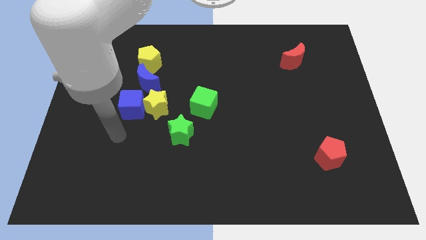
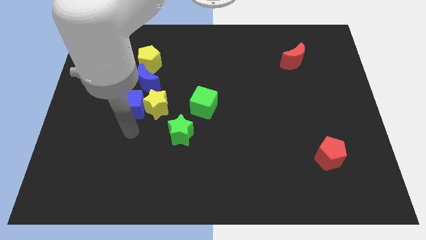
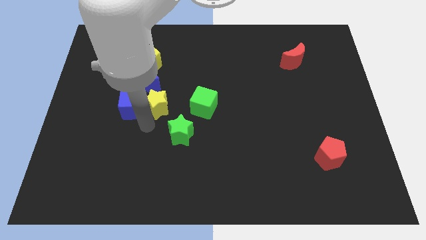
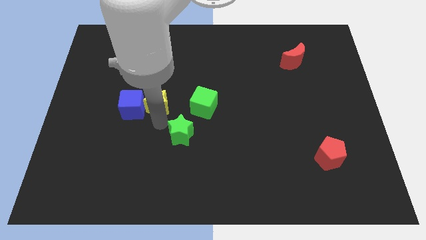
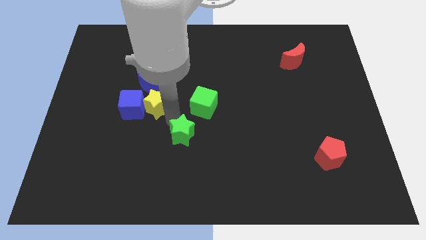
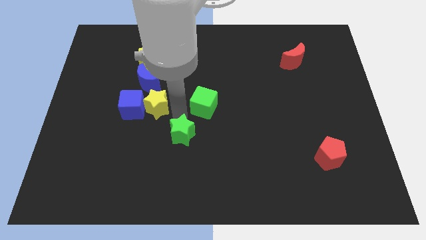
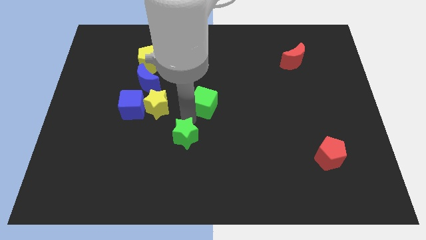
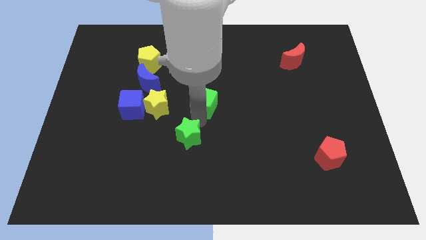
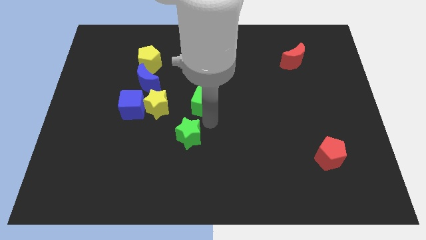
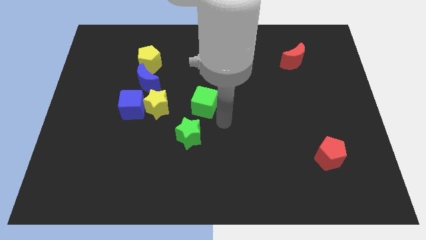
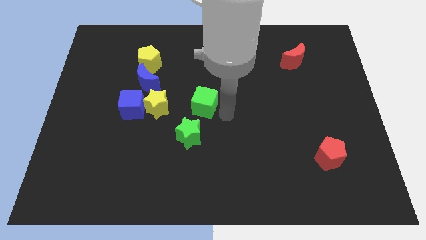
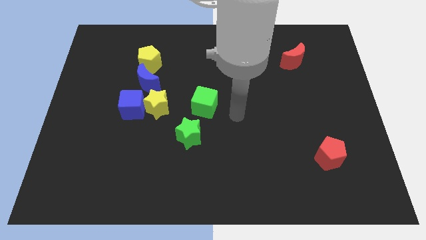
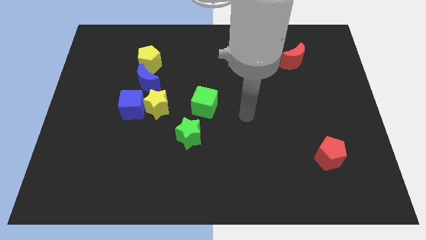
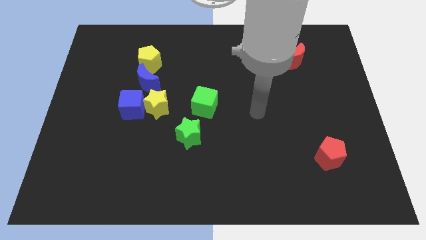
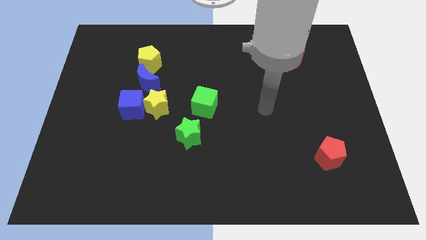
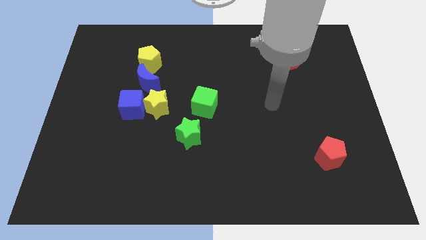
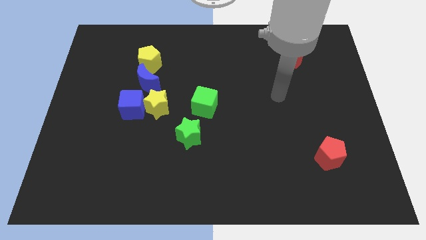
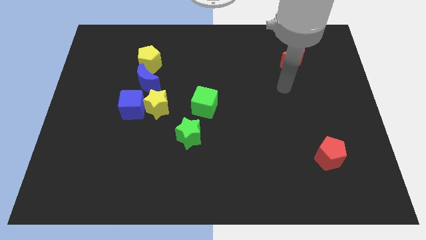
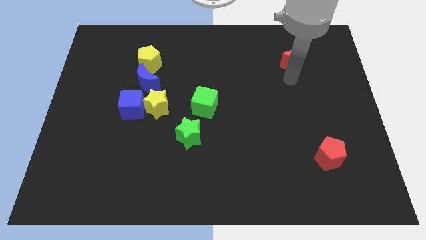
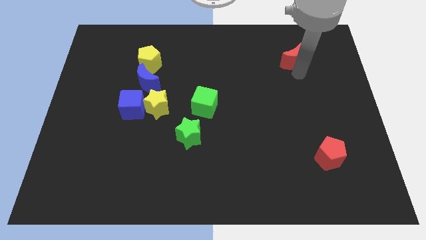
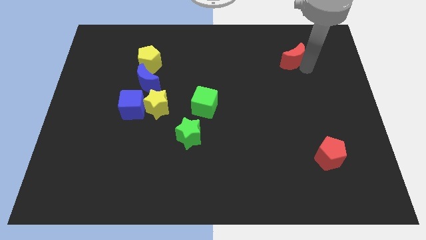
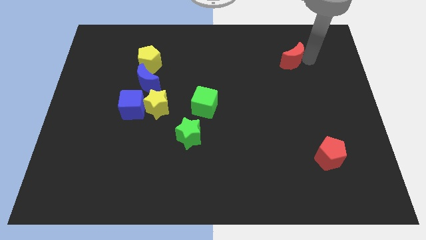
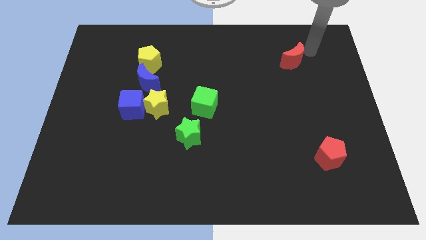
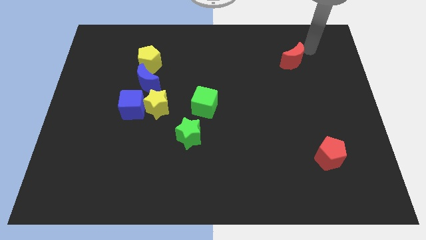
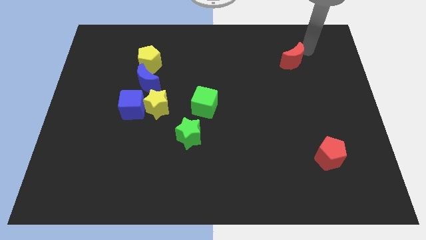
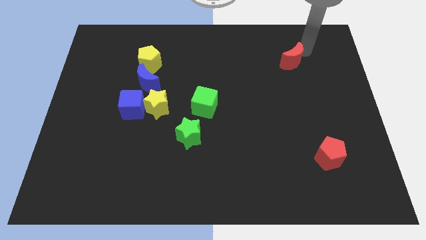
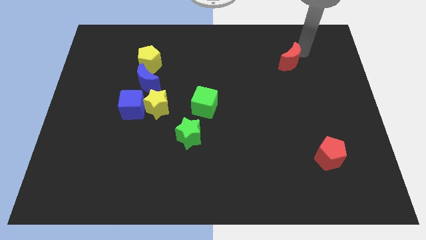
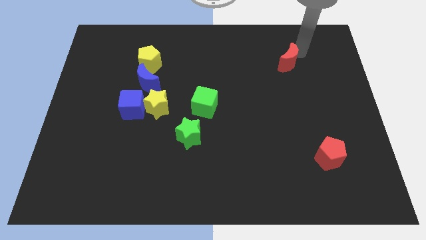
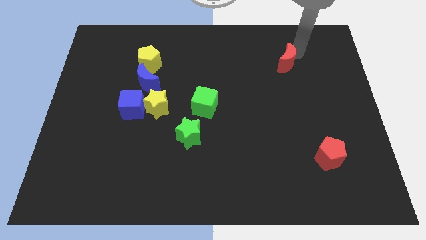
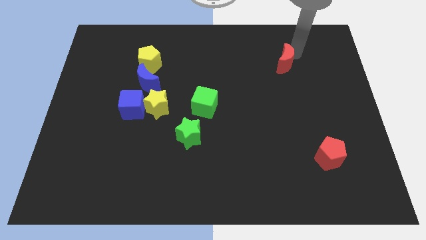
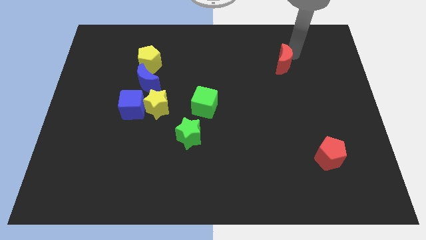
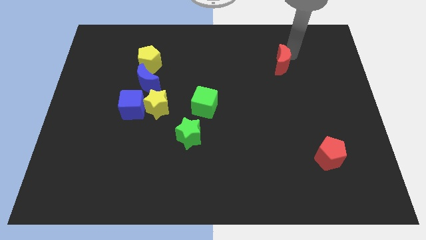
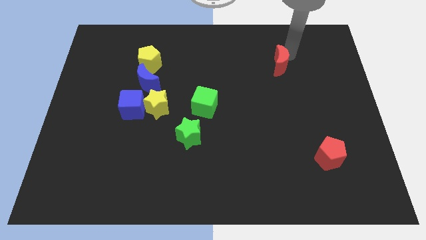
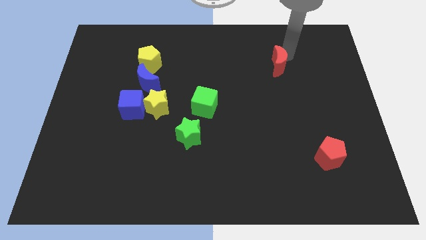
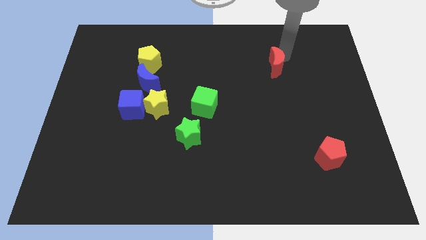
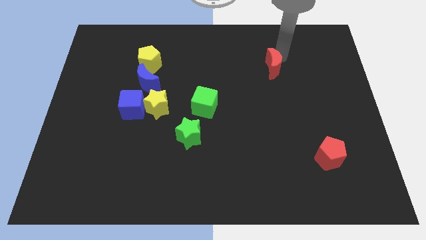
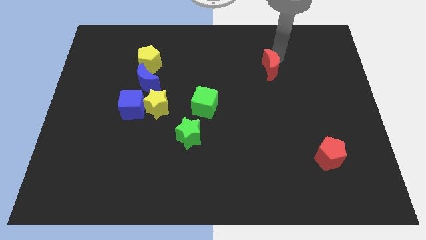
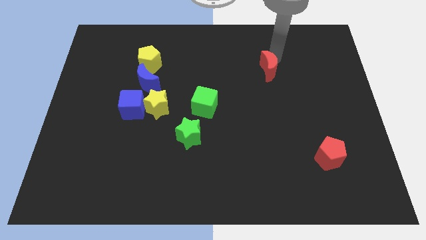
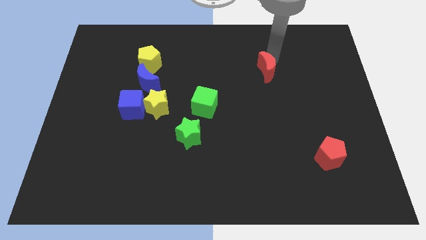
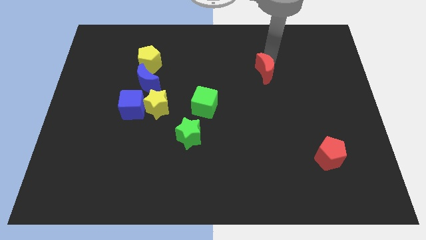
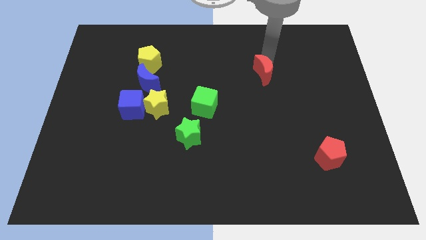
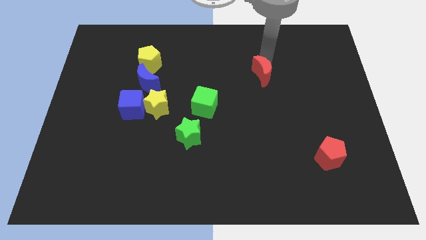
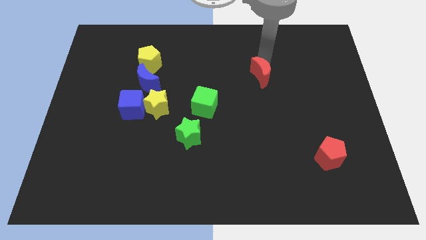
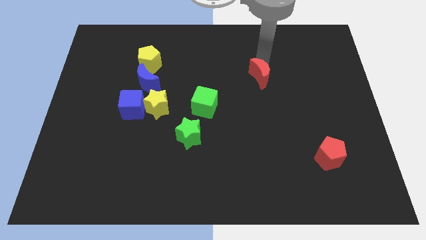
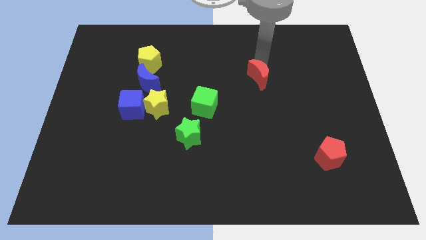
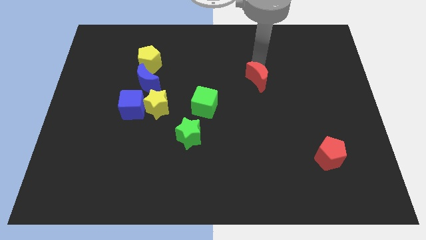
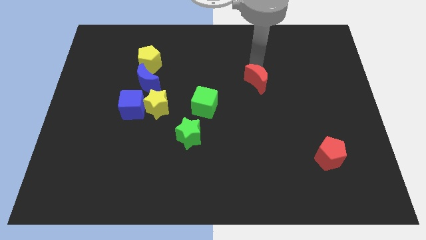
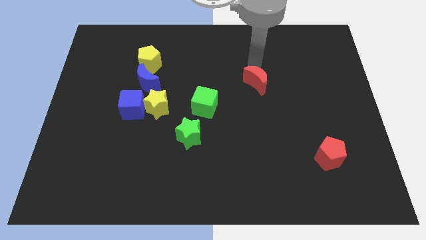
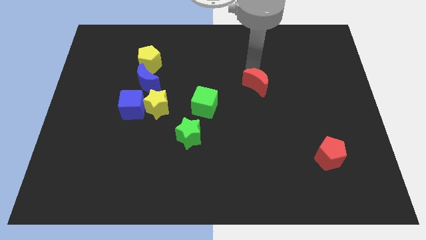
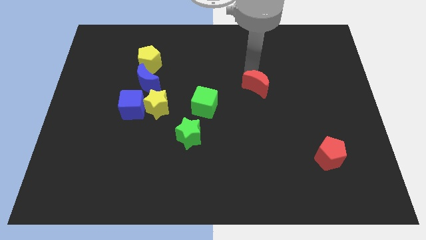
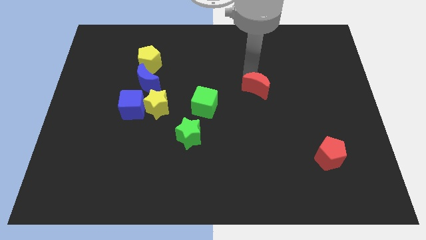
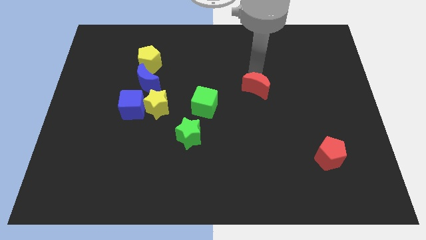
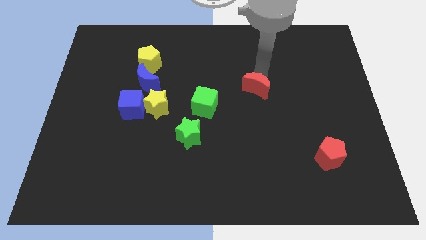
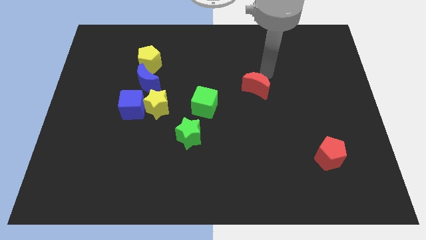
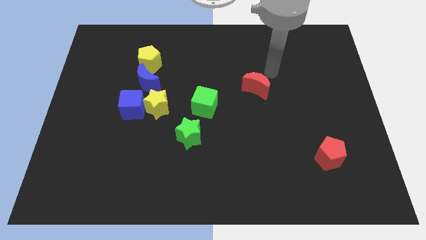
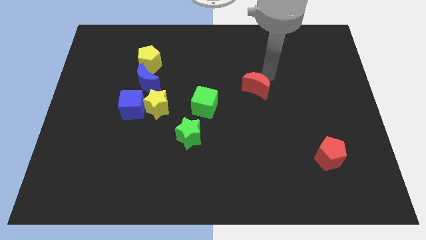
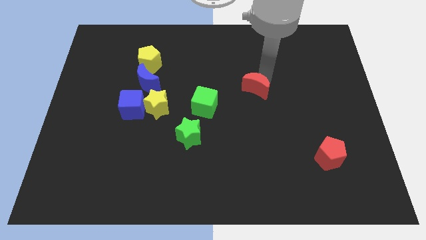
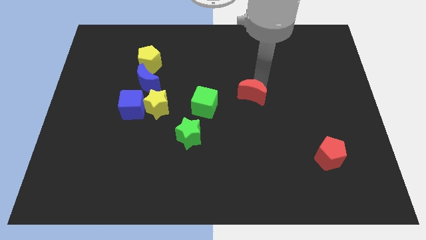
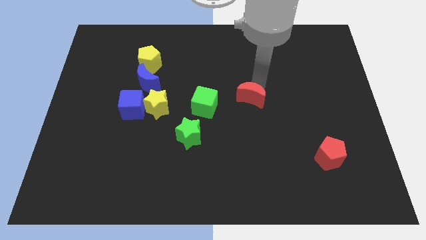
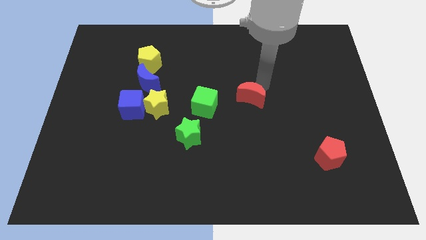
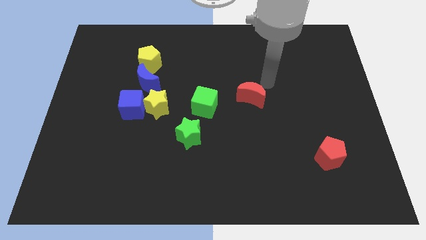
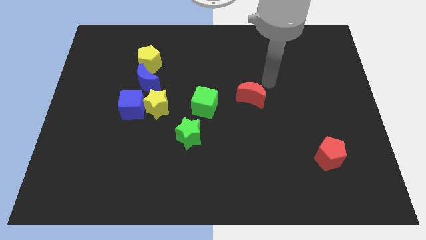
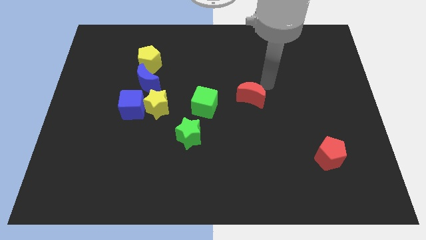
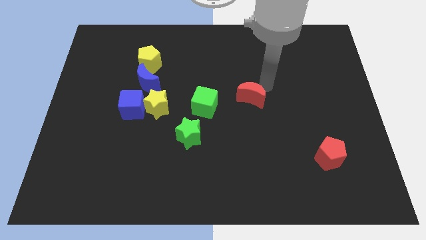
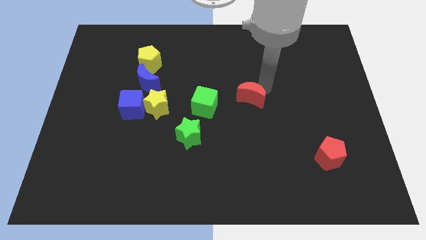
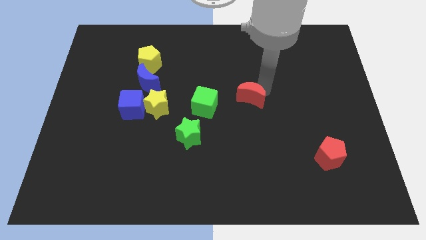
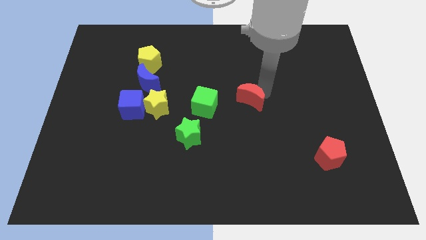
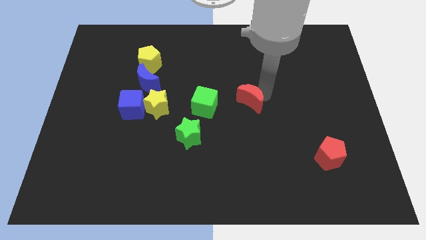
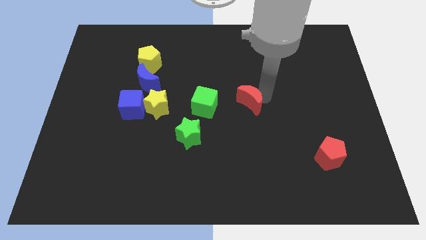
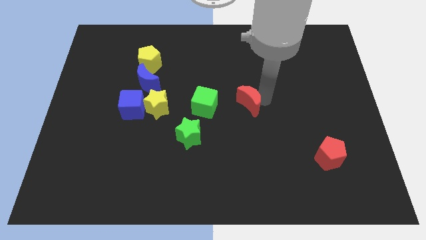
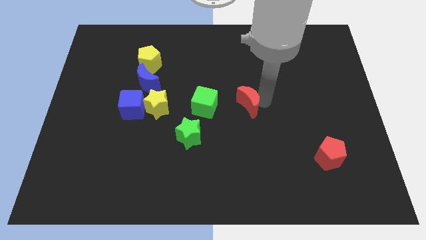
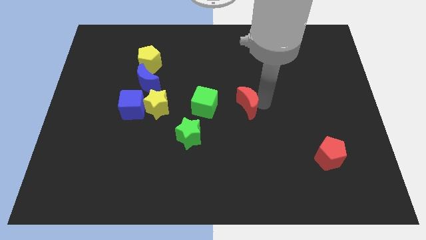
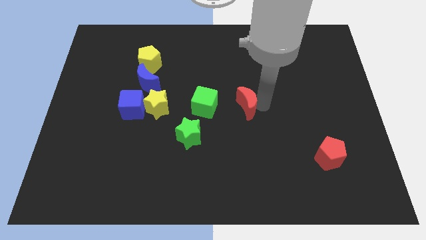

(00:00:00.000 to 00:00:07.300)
slide the red moon down and left

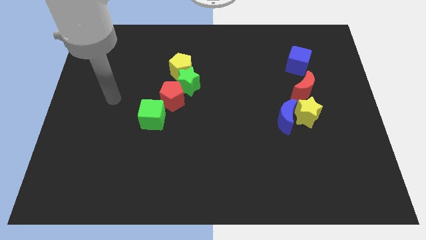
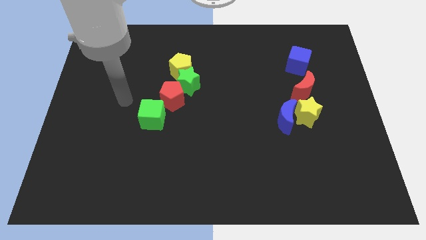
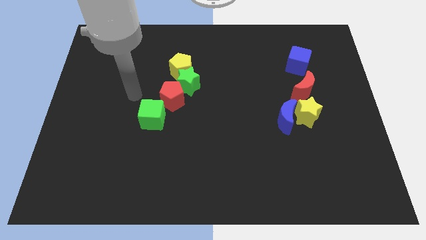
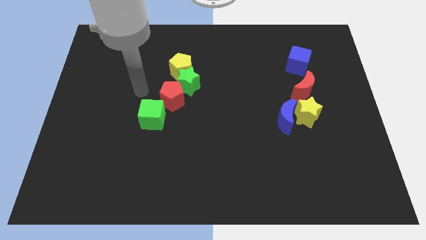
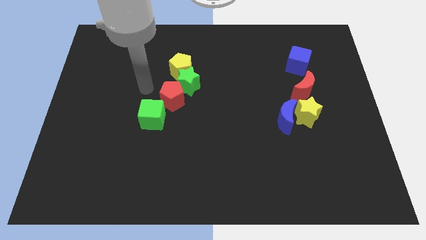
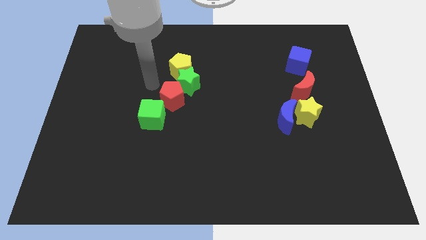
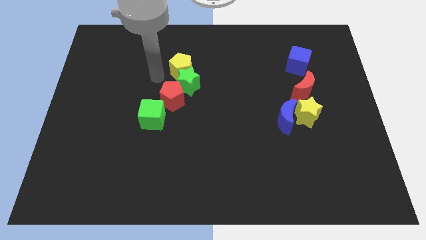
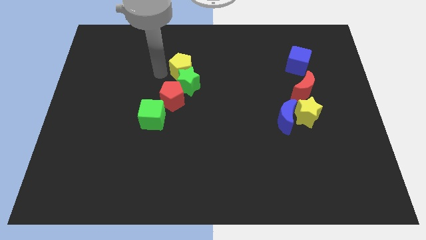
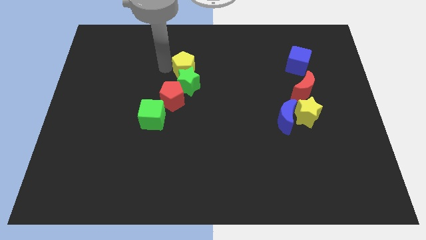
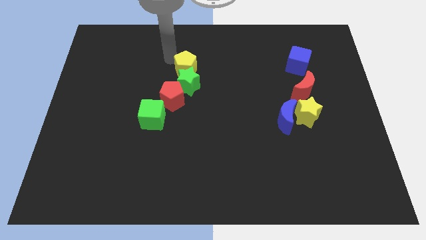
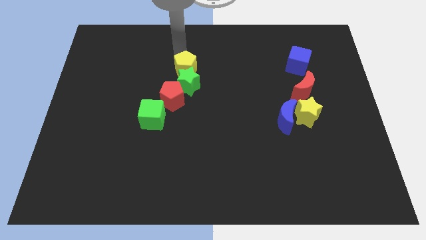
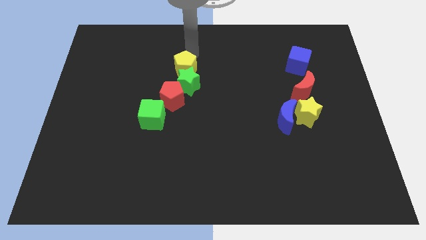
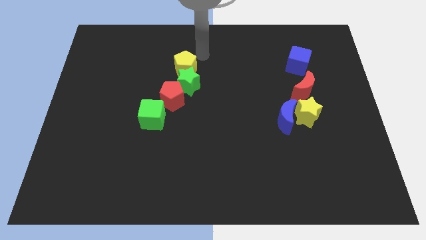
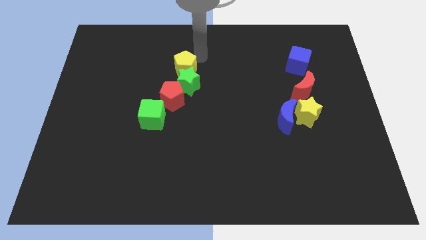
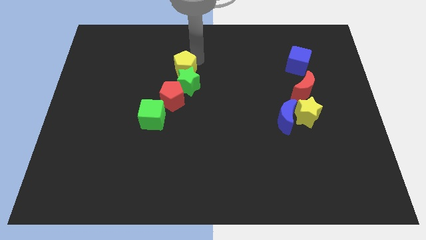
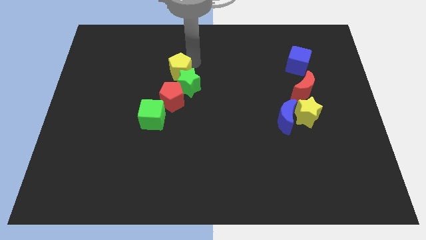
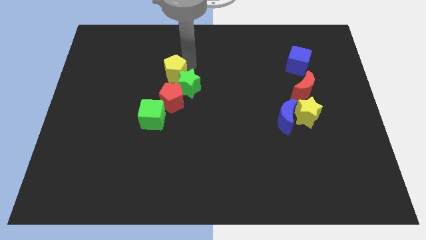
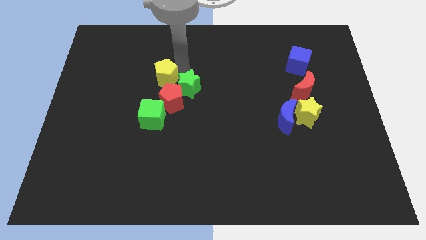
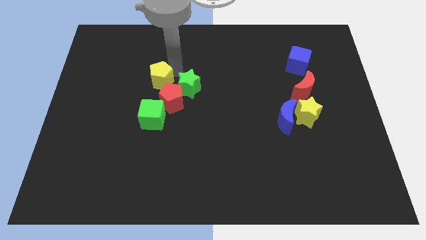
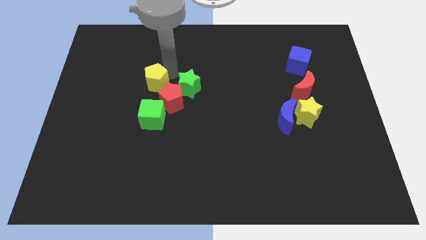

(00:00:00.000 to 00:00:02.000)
slightly push the yellow pentagon diagonally downwards and to the left
